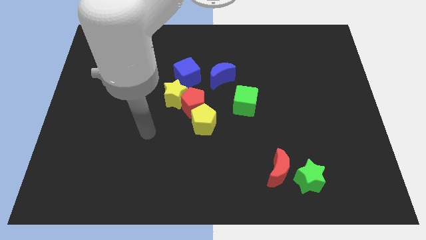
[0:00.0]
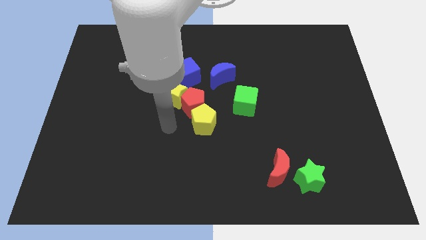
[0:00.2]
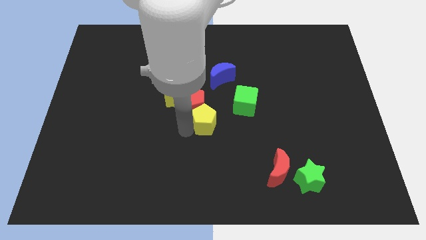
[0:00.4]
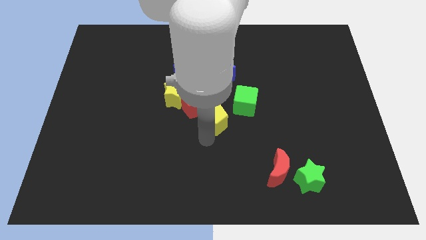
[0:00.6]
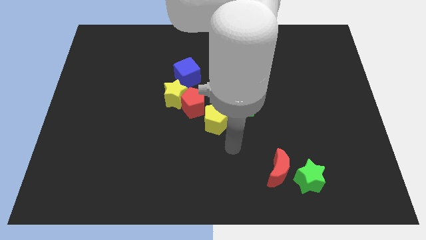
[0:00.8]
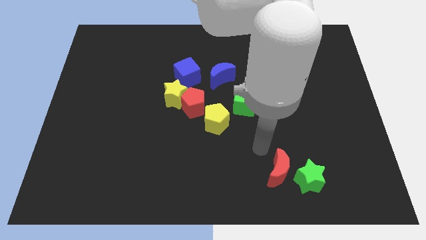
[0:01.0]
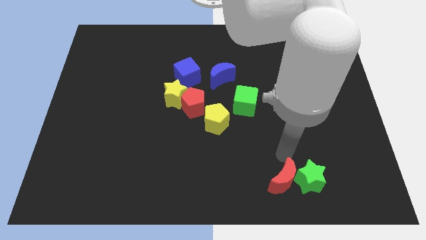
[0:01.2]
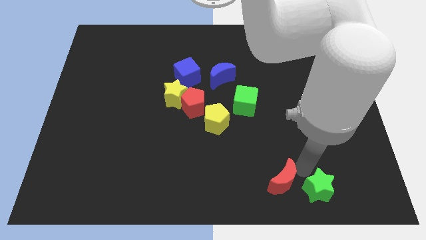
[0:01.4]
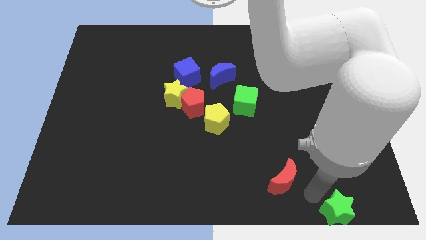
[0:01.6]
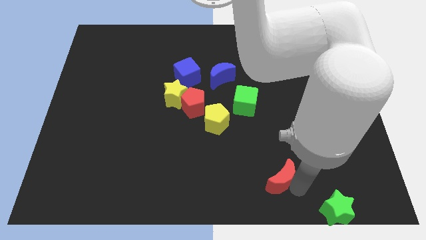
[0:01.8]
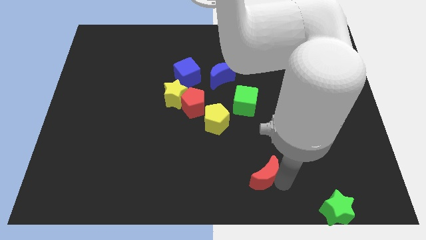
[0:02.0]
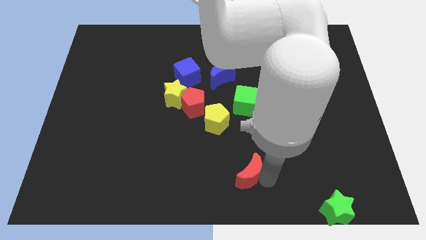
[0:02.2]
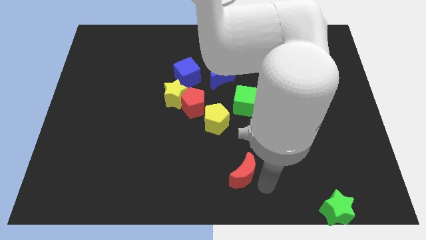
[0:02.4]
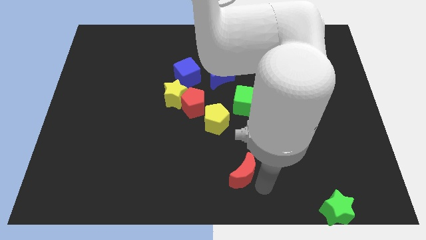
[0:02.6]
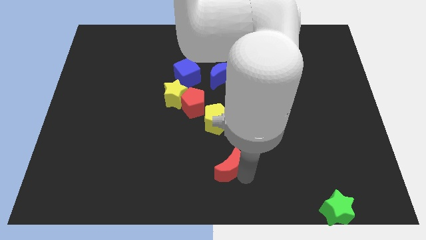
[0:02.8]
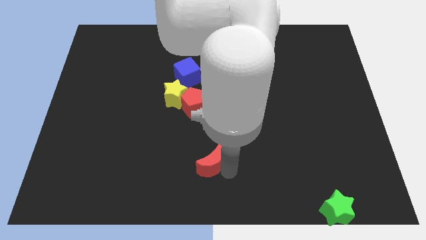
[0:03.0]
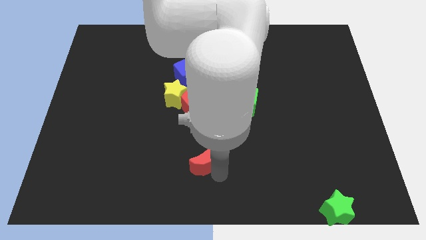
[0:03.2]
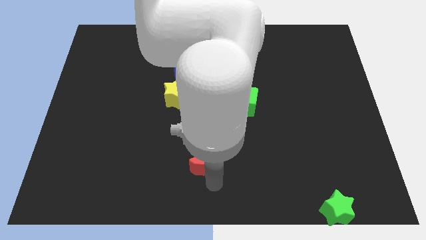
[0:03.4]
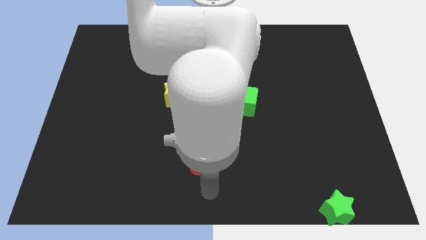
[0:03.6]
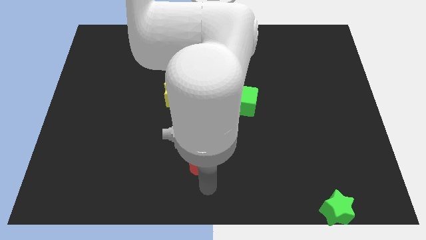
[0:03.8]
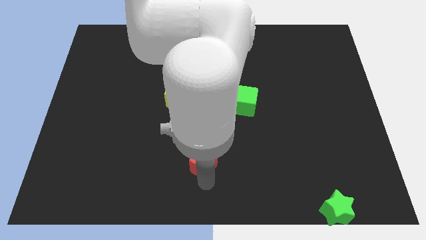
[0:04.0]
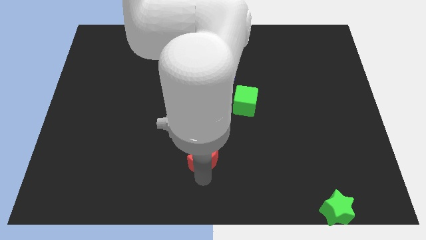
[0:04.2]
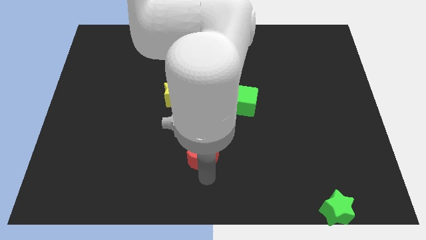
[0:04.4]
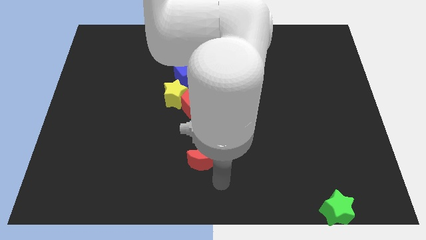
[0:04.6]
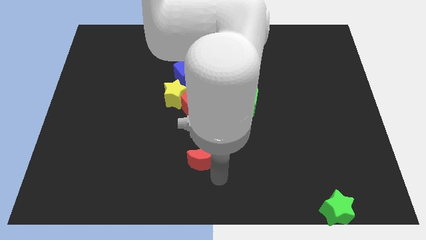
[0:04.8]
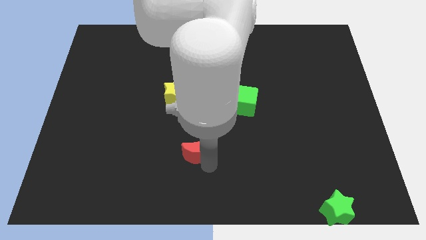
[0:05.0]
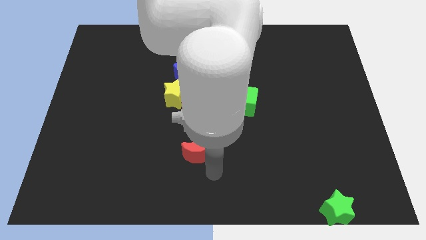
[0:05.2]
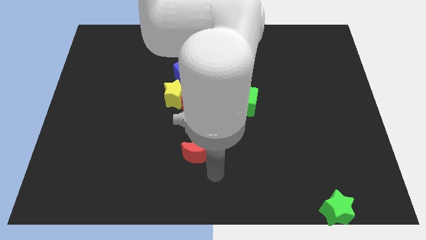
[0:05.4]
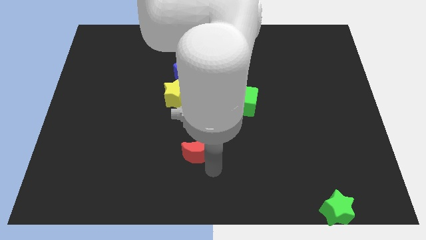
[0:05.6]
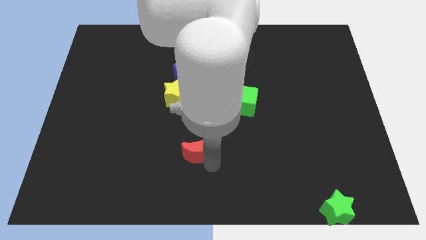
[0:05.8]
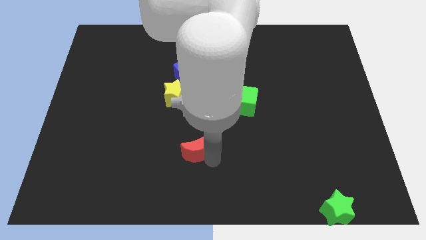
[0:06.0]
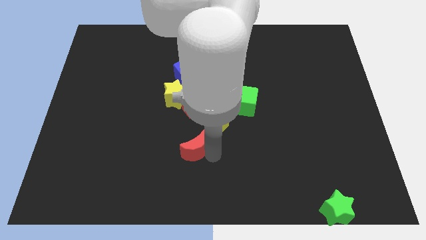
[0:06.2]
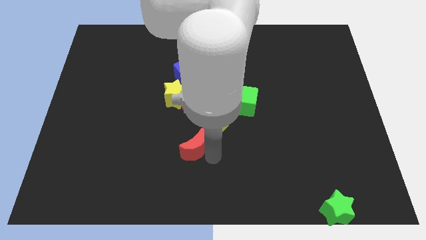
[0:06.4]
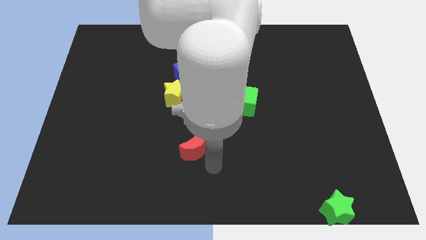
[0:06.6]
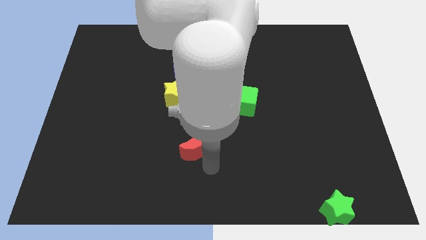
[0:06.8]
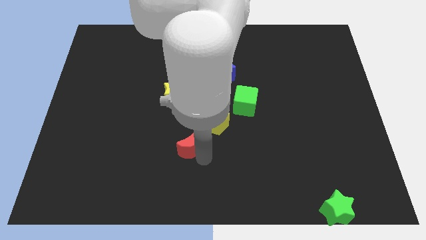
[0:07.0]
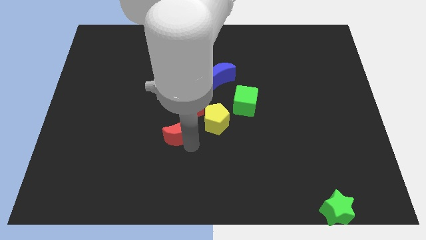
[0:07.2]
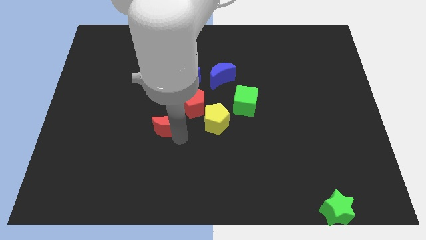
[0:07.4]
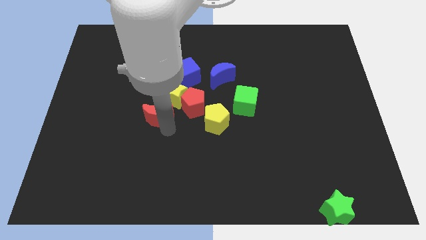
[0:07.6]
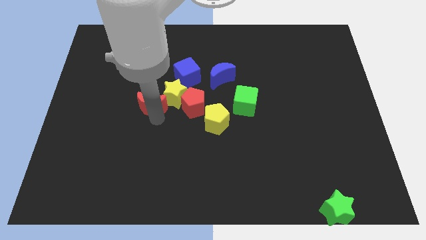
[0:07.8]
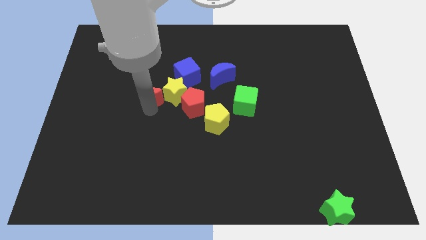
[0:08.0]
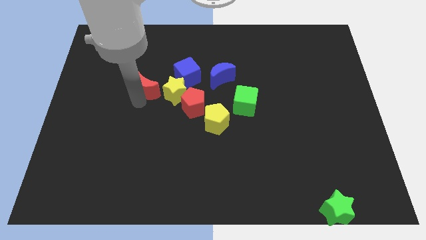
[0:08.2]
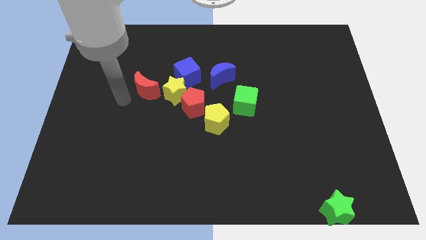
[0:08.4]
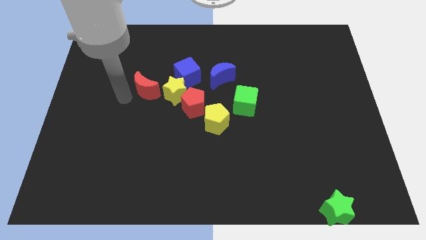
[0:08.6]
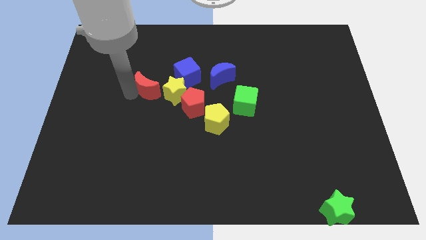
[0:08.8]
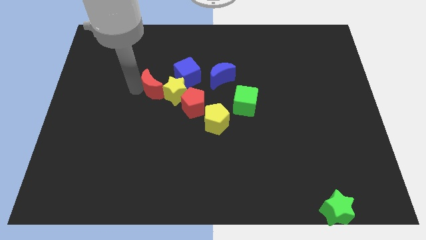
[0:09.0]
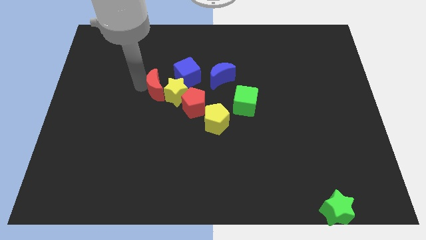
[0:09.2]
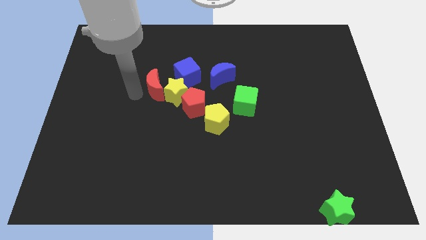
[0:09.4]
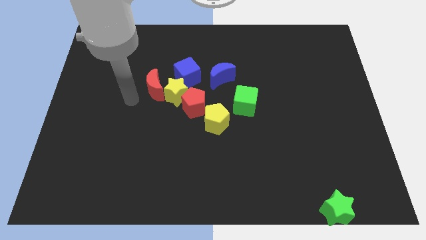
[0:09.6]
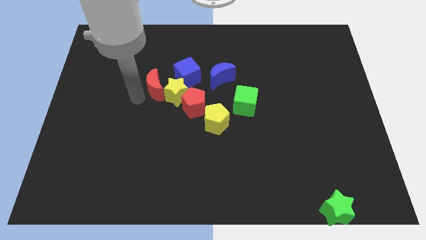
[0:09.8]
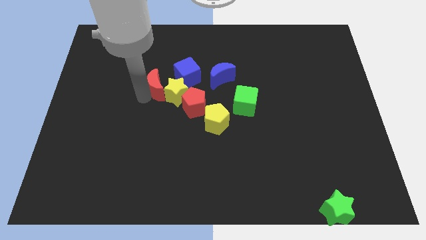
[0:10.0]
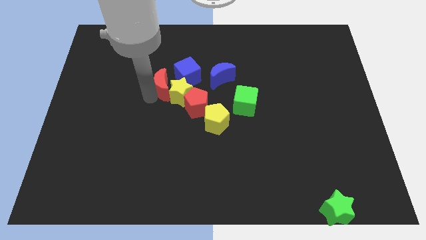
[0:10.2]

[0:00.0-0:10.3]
move the red moon just left of the blue moon

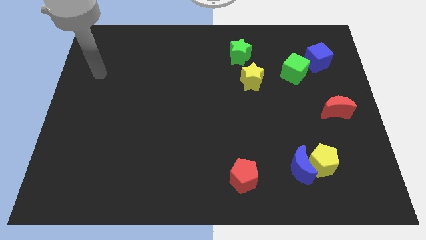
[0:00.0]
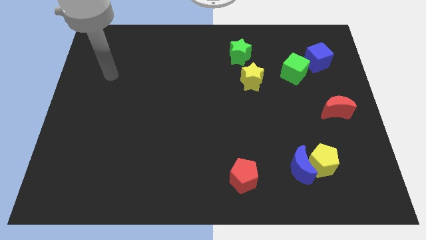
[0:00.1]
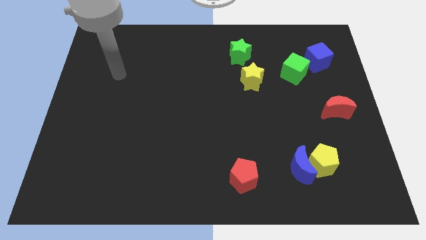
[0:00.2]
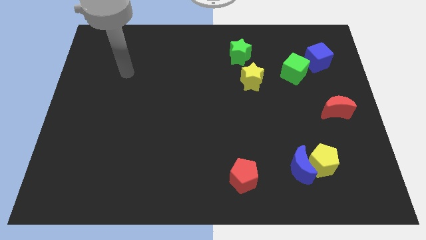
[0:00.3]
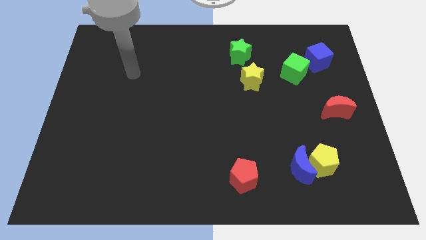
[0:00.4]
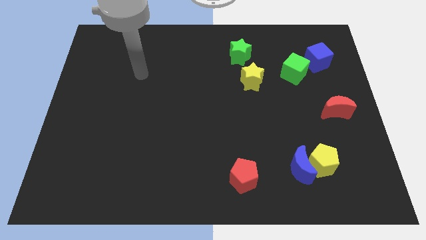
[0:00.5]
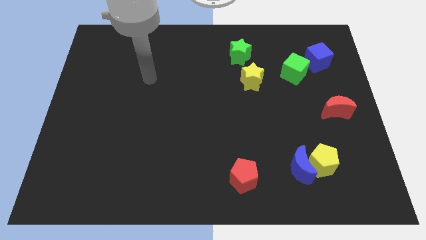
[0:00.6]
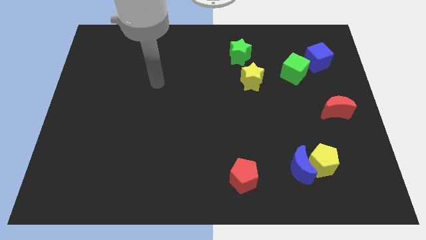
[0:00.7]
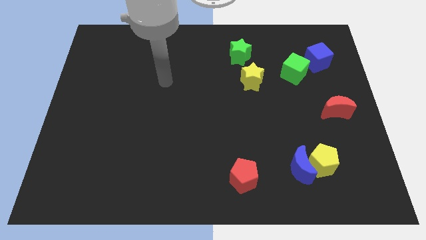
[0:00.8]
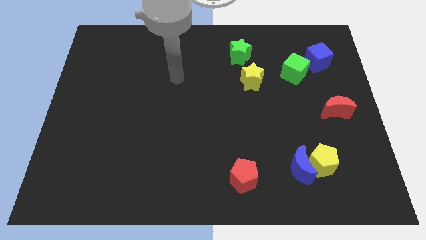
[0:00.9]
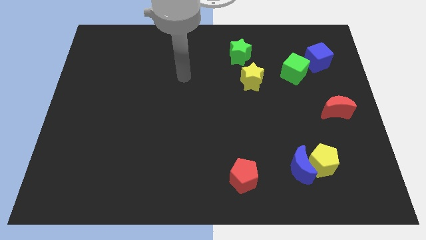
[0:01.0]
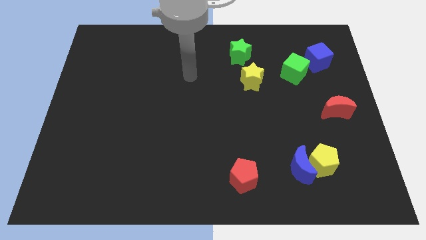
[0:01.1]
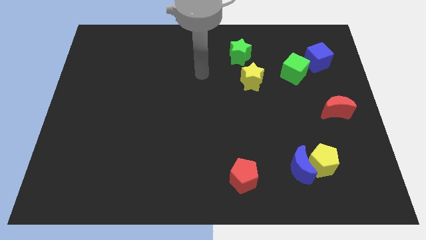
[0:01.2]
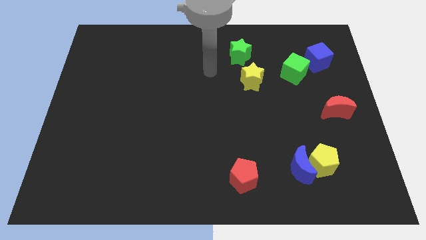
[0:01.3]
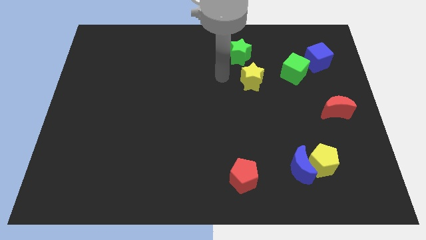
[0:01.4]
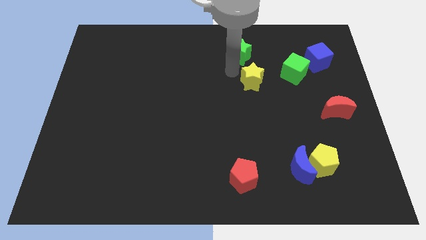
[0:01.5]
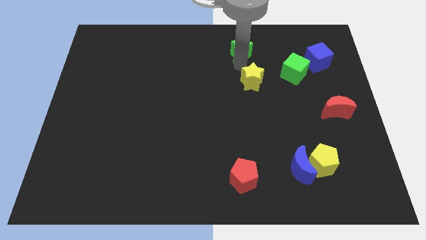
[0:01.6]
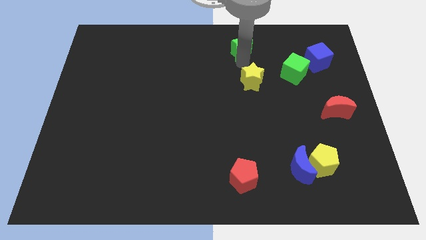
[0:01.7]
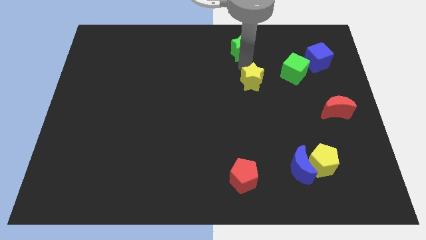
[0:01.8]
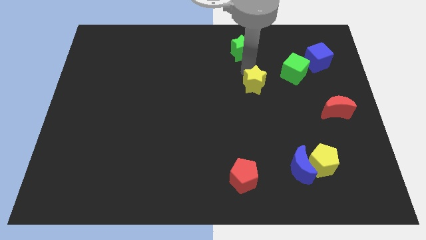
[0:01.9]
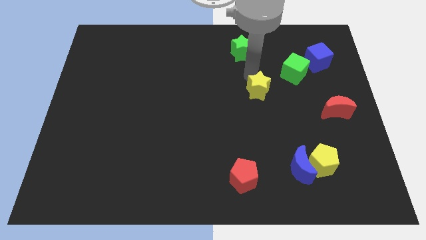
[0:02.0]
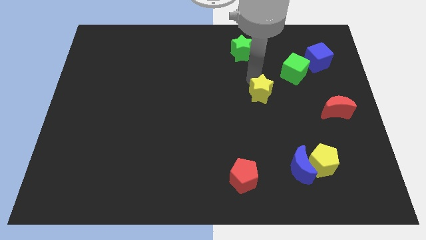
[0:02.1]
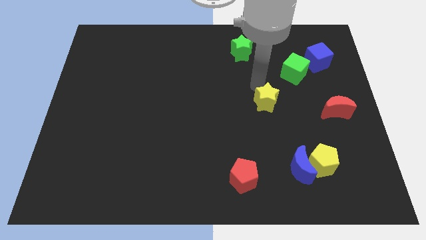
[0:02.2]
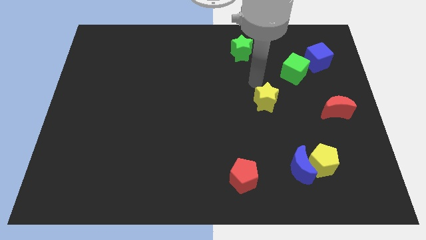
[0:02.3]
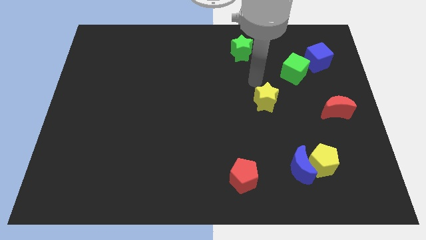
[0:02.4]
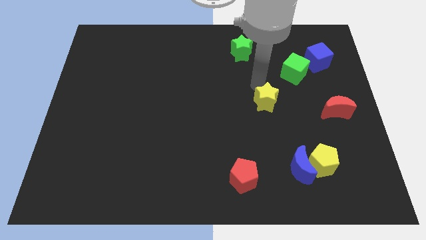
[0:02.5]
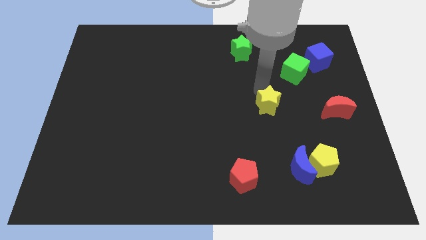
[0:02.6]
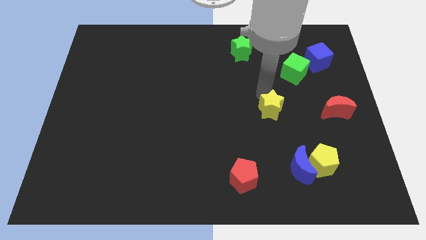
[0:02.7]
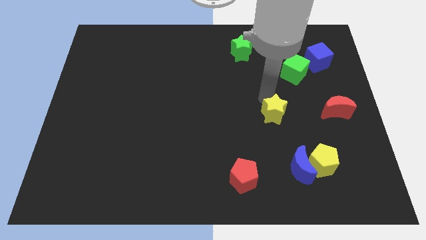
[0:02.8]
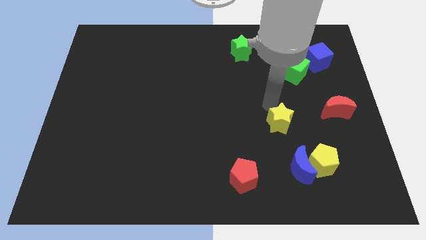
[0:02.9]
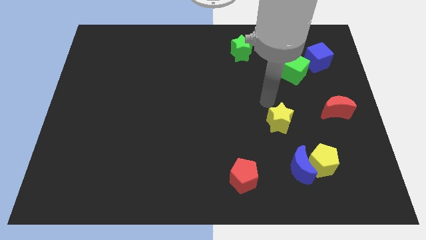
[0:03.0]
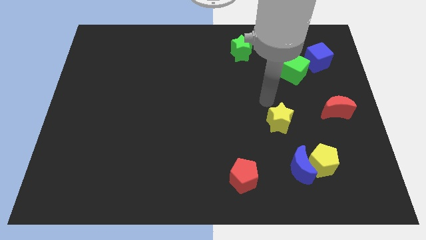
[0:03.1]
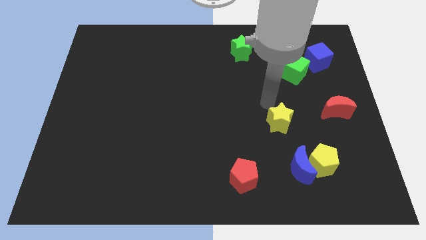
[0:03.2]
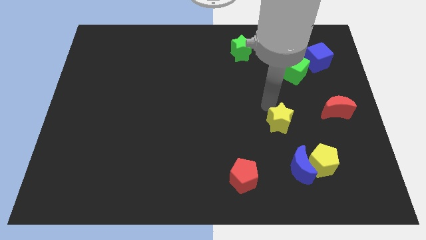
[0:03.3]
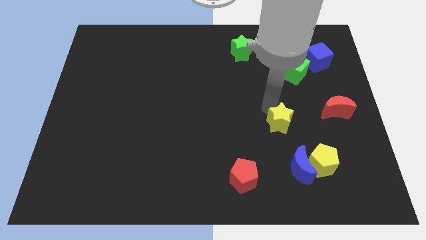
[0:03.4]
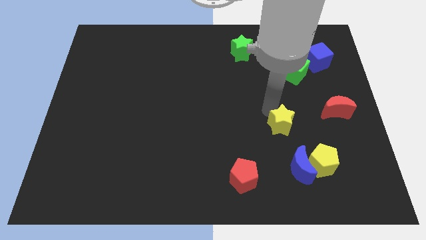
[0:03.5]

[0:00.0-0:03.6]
slide the yellow star to the top left side of the yellow pentagon
